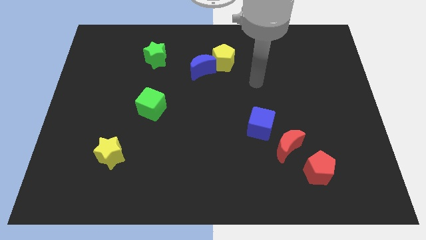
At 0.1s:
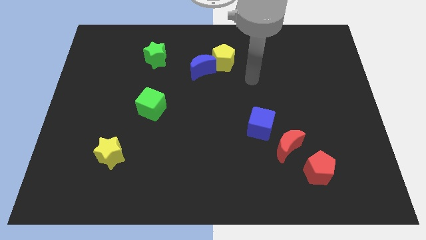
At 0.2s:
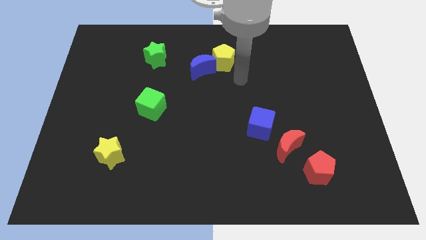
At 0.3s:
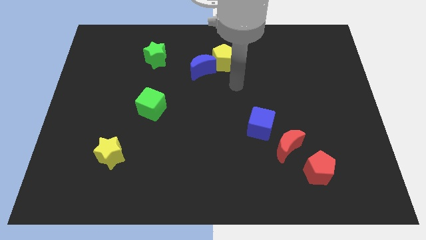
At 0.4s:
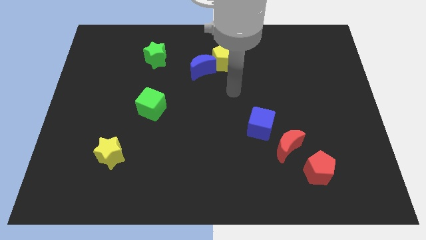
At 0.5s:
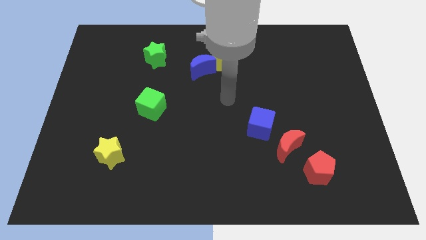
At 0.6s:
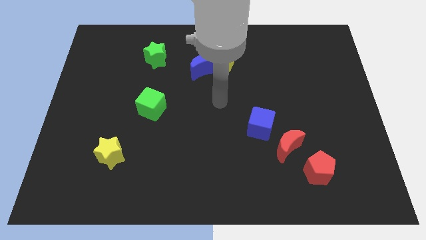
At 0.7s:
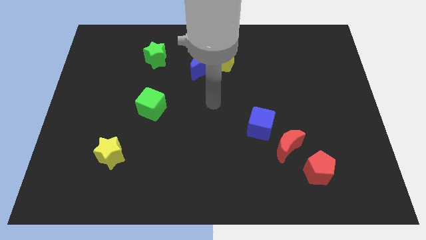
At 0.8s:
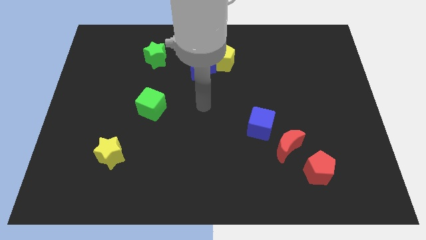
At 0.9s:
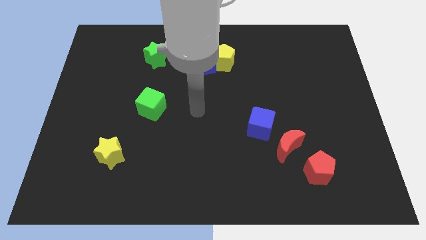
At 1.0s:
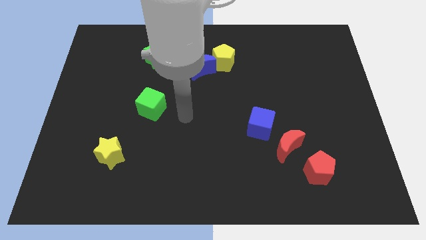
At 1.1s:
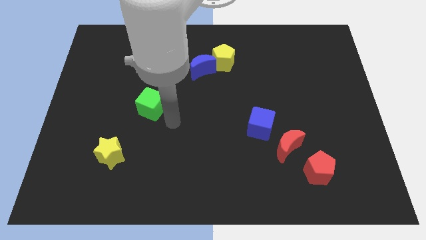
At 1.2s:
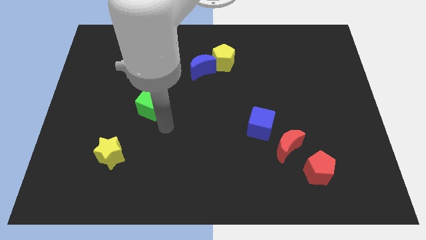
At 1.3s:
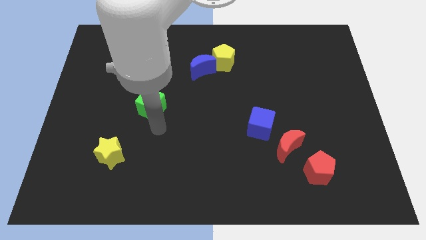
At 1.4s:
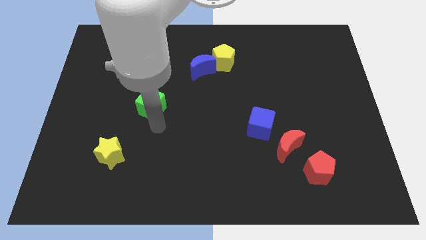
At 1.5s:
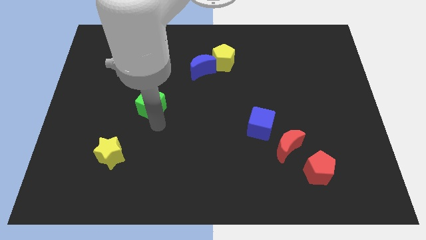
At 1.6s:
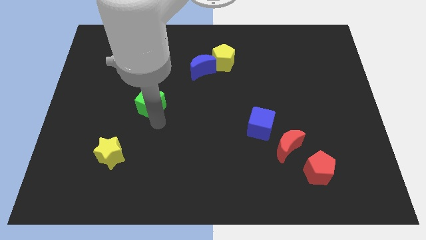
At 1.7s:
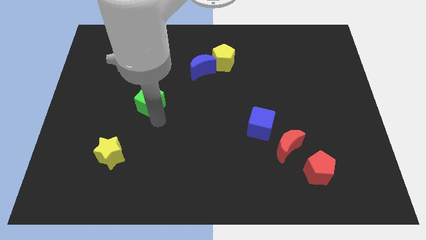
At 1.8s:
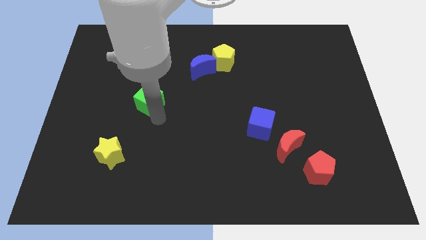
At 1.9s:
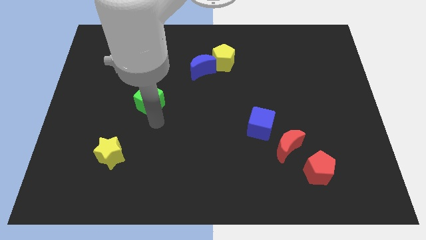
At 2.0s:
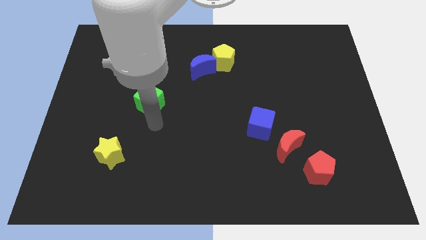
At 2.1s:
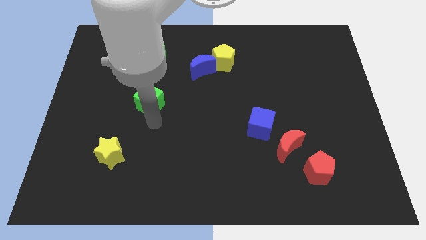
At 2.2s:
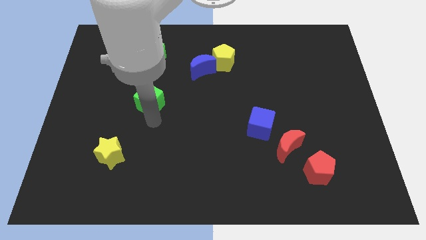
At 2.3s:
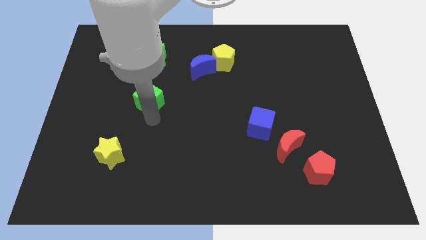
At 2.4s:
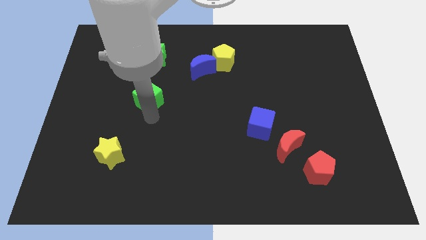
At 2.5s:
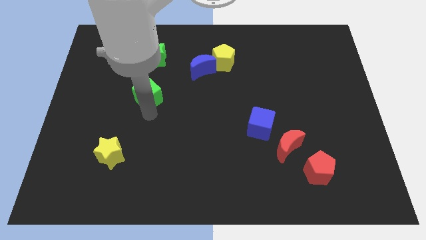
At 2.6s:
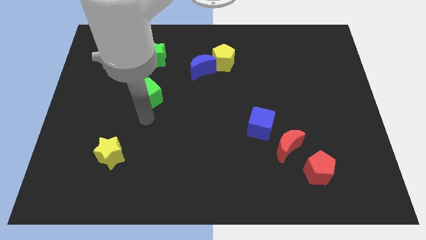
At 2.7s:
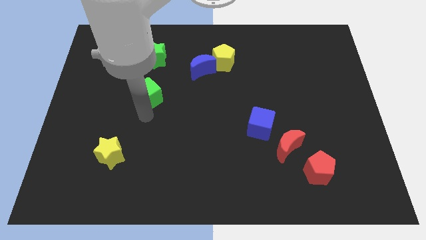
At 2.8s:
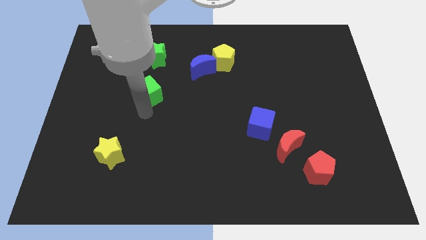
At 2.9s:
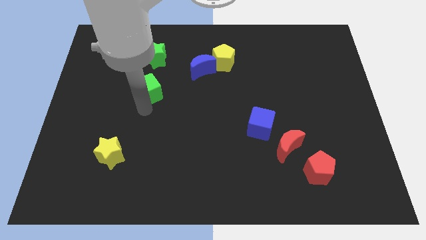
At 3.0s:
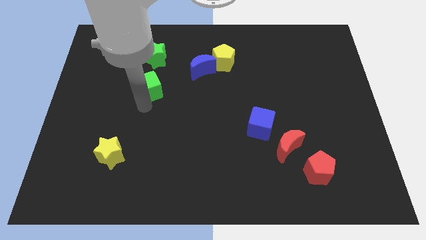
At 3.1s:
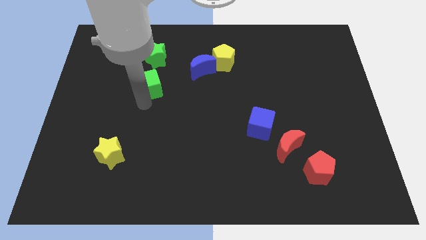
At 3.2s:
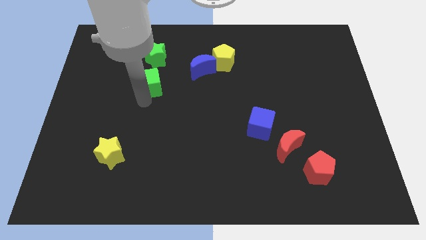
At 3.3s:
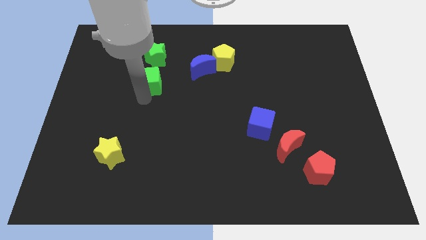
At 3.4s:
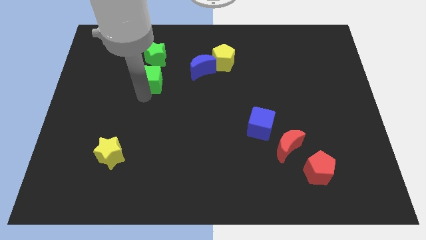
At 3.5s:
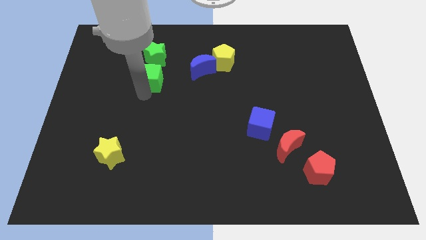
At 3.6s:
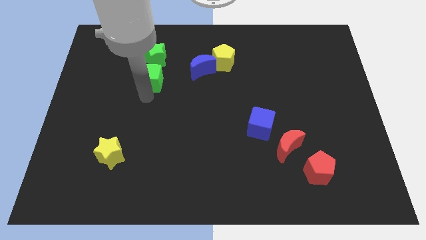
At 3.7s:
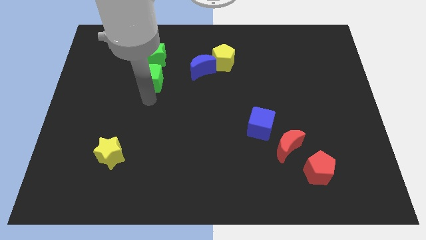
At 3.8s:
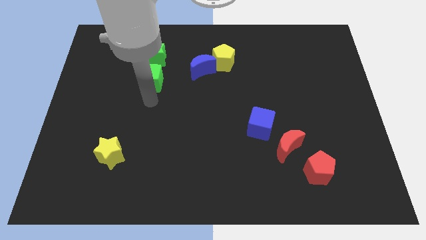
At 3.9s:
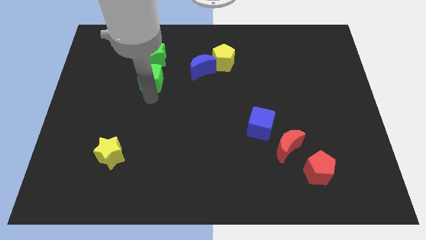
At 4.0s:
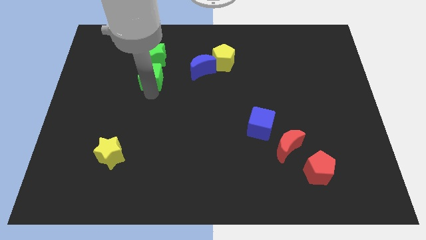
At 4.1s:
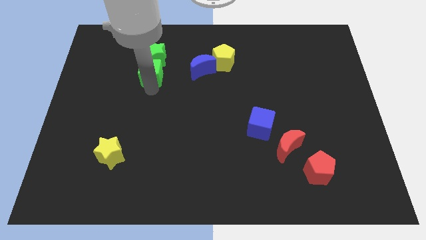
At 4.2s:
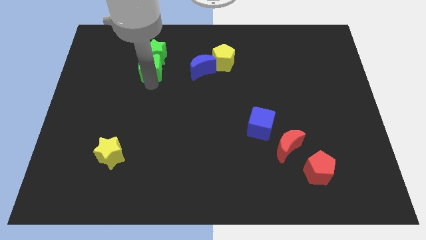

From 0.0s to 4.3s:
push the green cube close to the green star

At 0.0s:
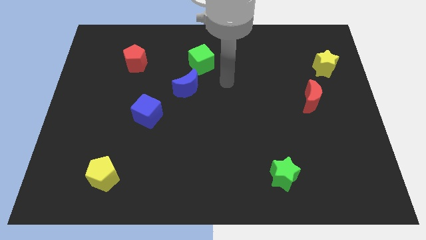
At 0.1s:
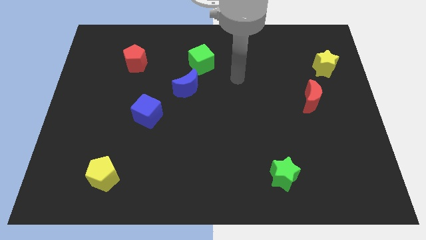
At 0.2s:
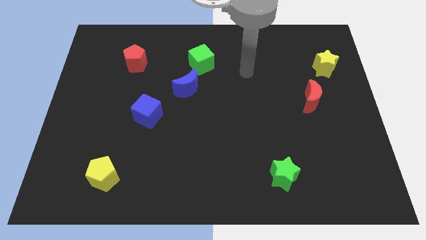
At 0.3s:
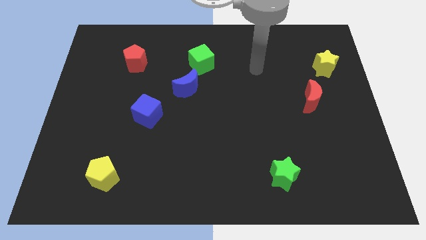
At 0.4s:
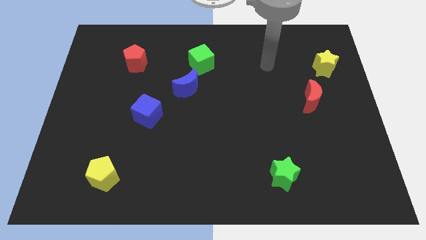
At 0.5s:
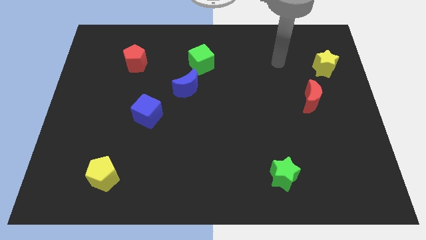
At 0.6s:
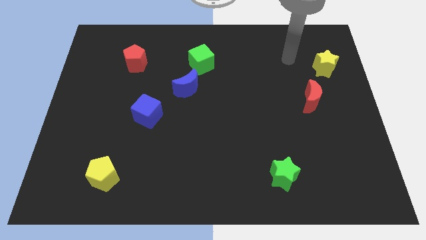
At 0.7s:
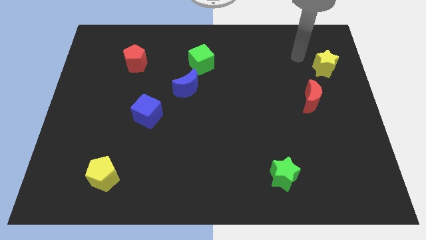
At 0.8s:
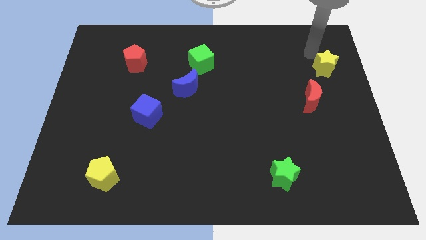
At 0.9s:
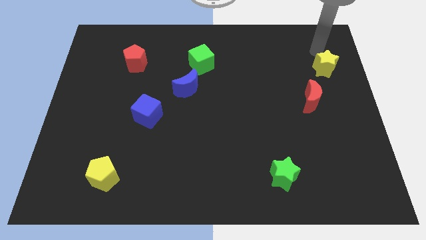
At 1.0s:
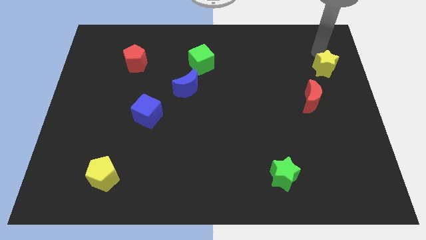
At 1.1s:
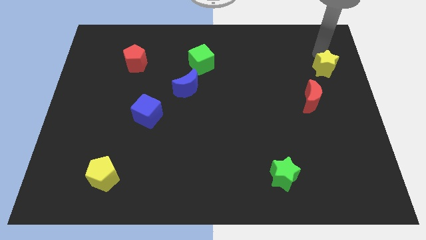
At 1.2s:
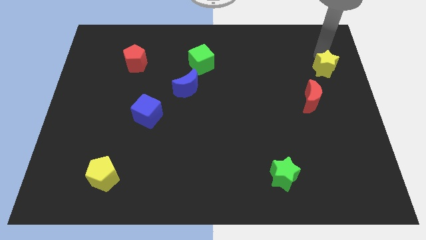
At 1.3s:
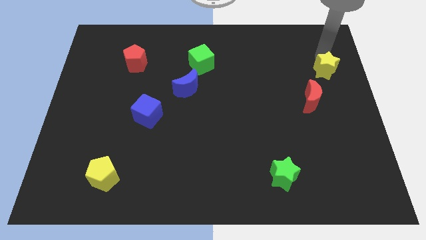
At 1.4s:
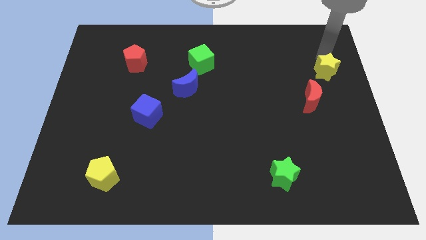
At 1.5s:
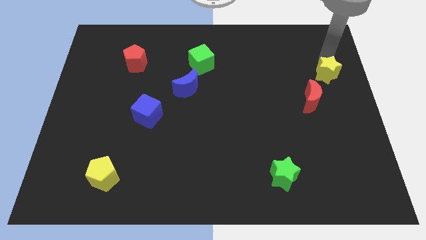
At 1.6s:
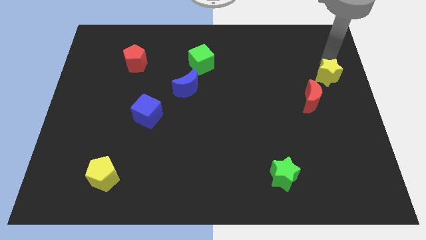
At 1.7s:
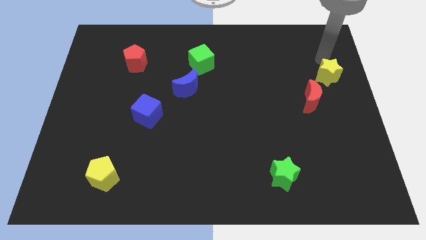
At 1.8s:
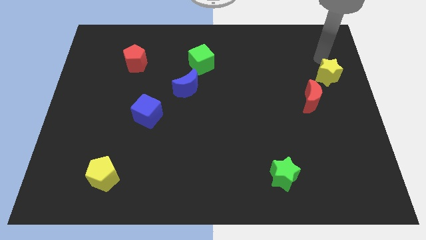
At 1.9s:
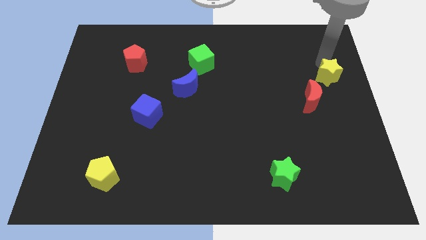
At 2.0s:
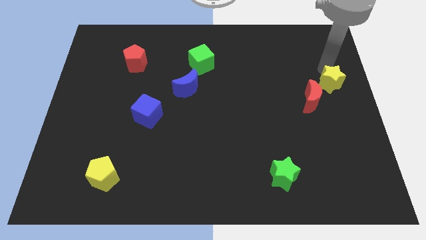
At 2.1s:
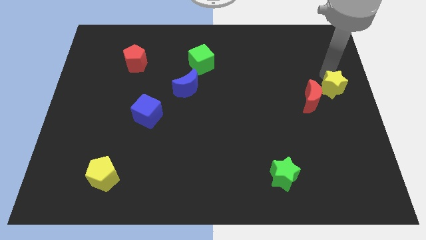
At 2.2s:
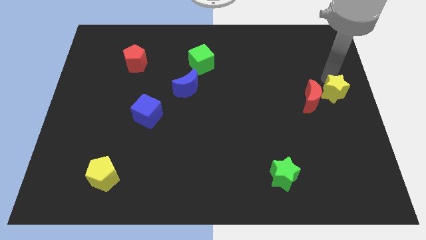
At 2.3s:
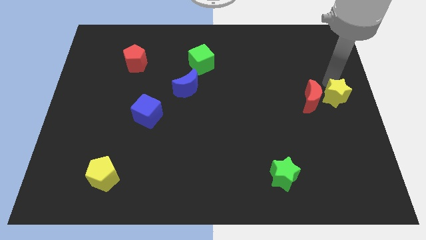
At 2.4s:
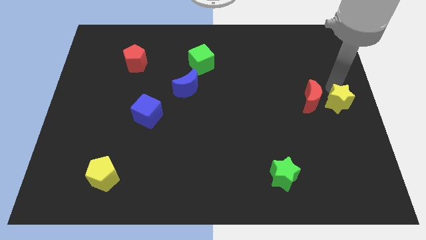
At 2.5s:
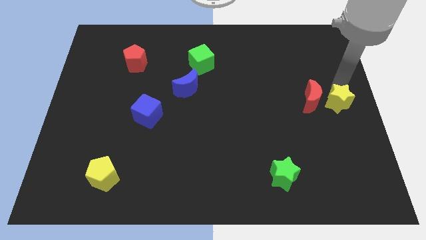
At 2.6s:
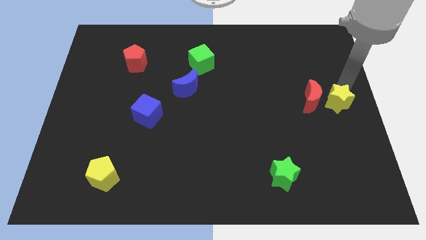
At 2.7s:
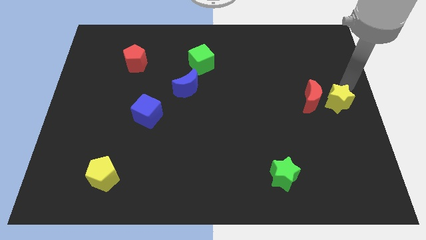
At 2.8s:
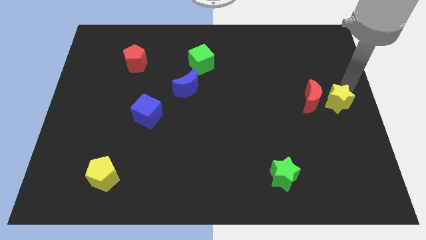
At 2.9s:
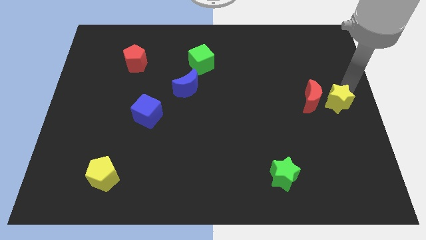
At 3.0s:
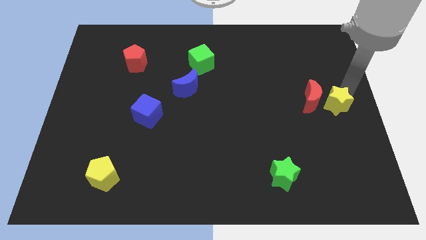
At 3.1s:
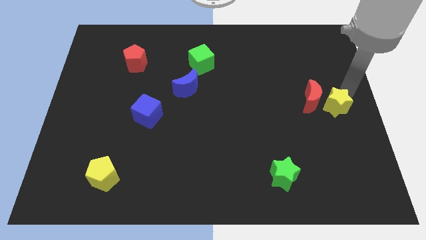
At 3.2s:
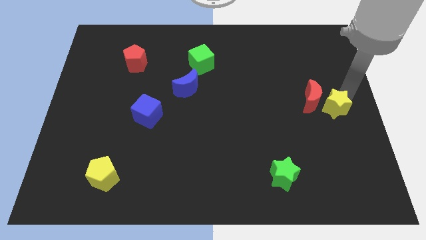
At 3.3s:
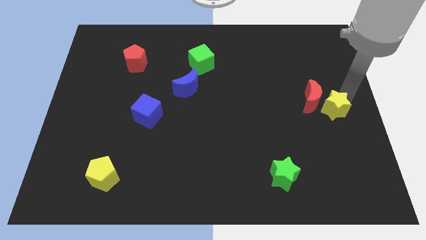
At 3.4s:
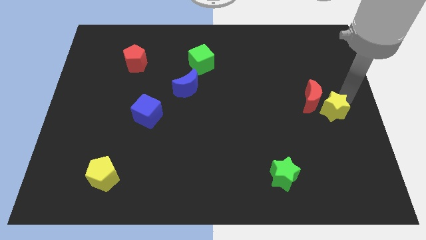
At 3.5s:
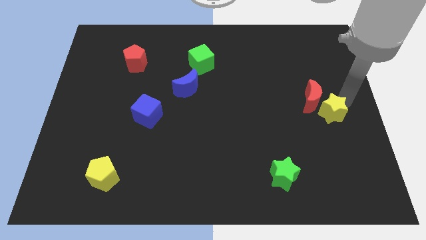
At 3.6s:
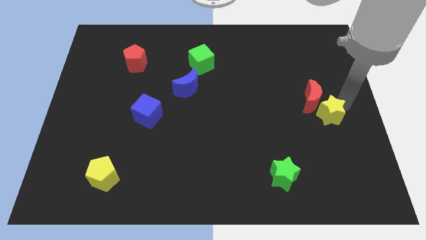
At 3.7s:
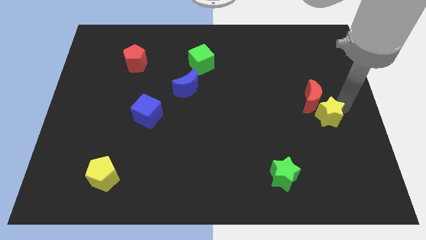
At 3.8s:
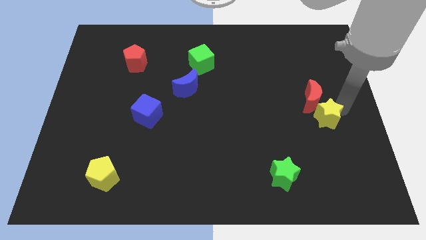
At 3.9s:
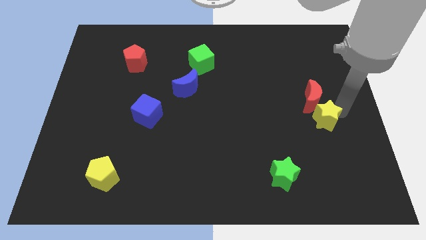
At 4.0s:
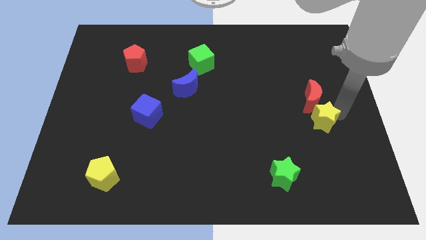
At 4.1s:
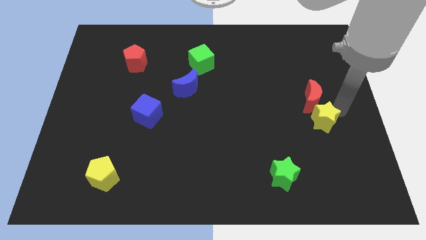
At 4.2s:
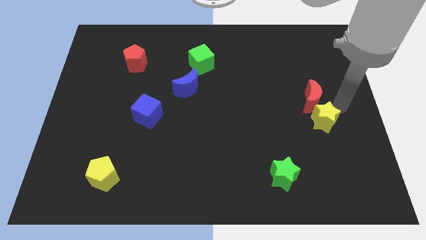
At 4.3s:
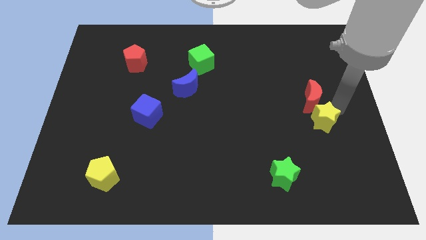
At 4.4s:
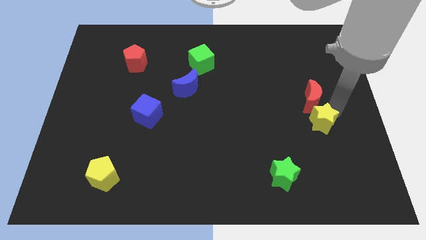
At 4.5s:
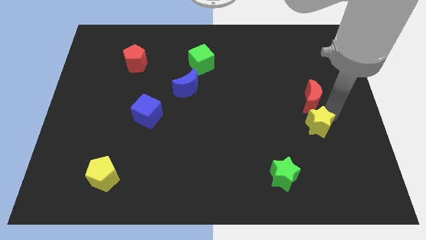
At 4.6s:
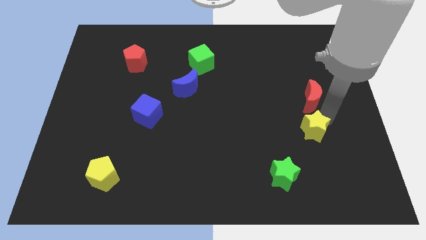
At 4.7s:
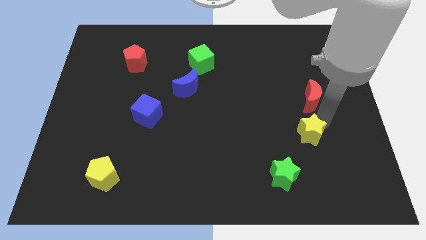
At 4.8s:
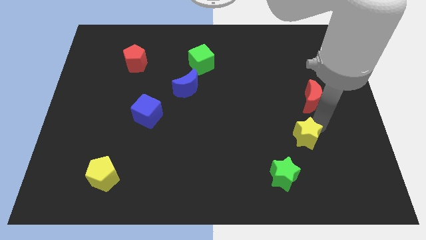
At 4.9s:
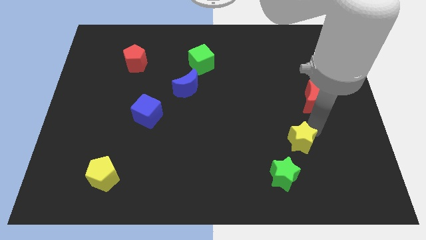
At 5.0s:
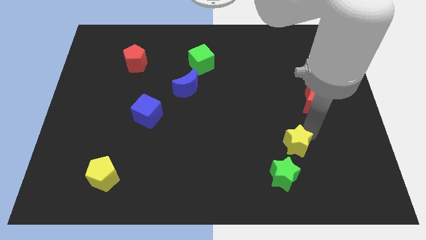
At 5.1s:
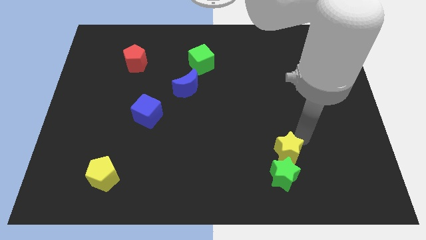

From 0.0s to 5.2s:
push the yellow star next to the green star
